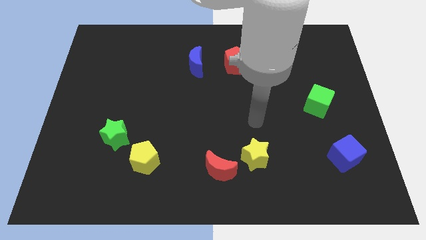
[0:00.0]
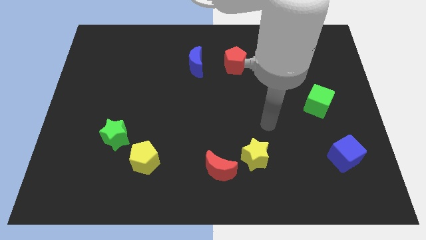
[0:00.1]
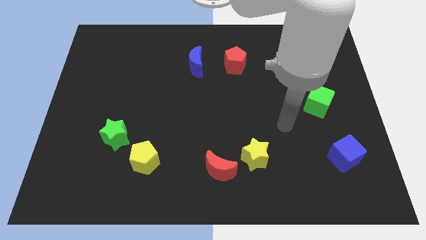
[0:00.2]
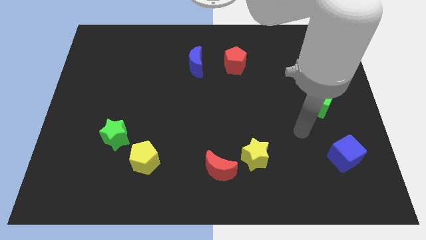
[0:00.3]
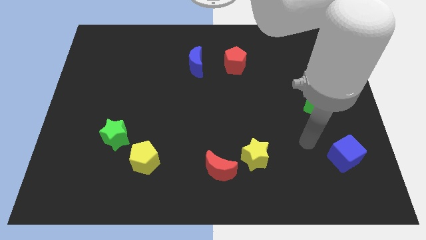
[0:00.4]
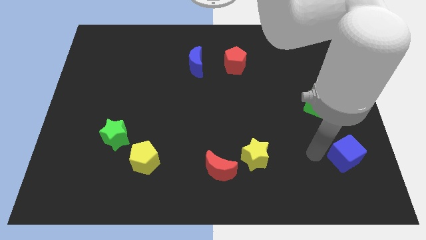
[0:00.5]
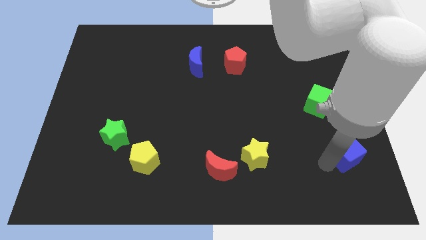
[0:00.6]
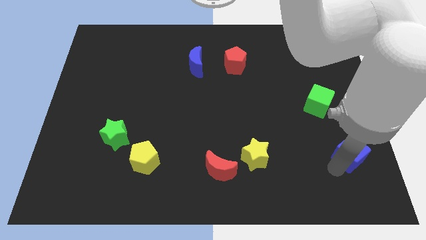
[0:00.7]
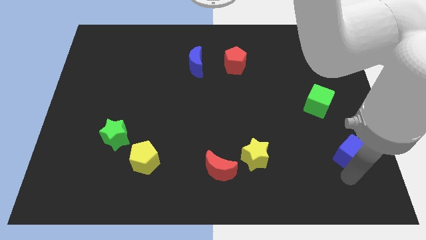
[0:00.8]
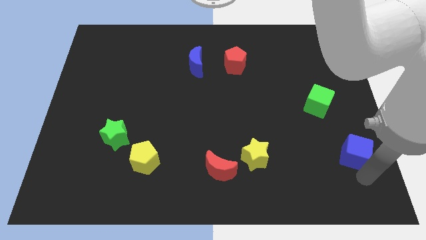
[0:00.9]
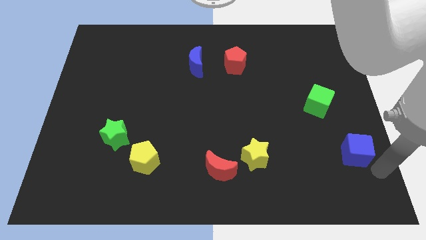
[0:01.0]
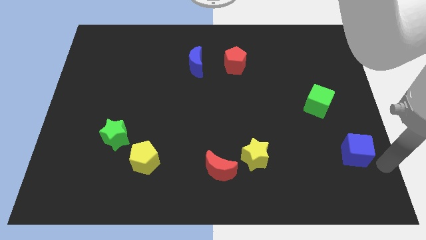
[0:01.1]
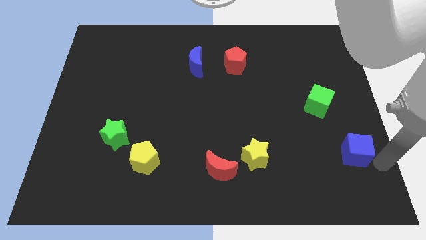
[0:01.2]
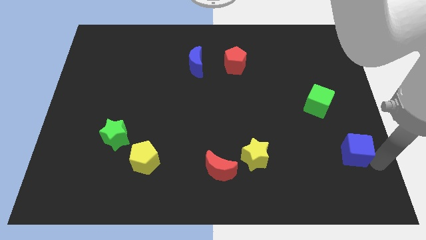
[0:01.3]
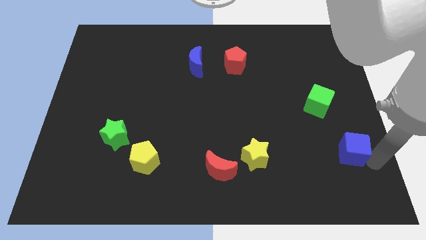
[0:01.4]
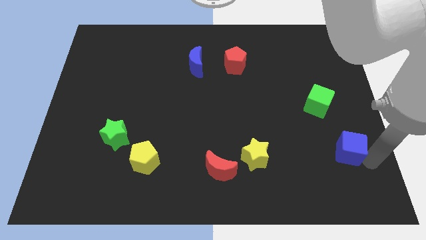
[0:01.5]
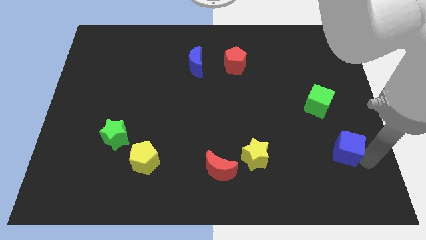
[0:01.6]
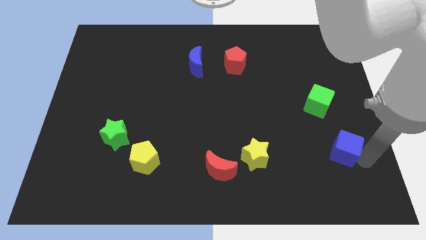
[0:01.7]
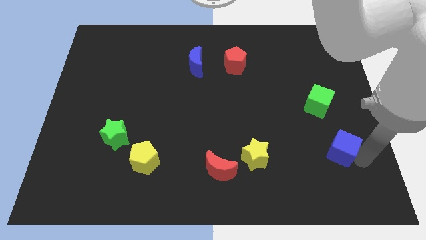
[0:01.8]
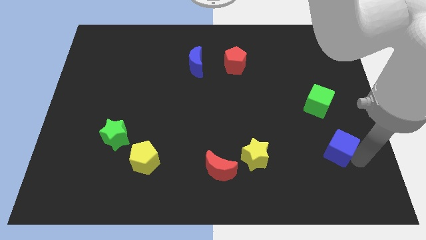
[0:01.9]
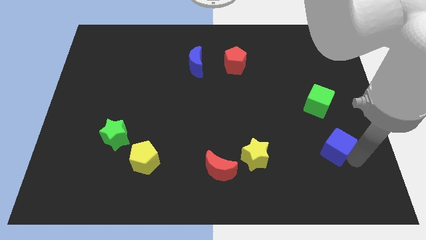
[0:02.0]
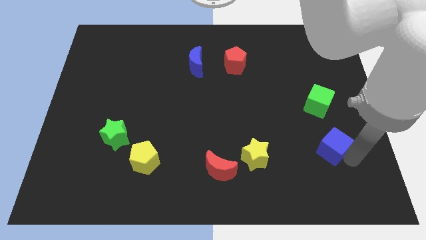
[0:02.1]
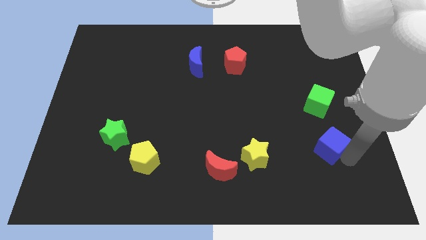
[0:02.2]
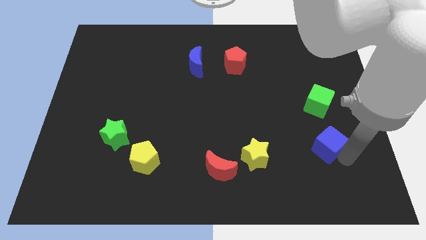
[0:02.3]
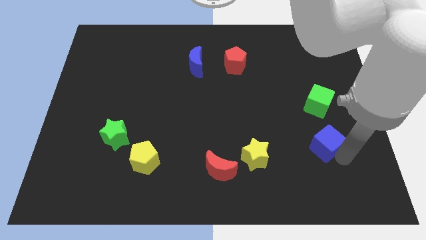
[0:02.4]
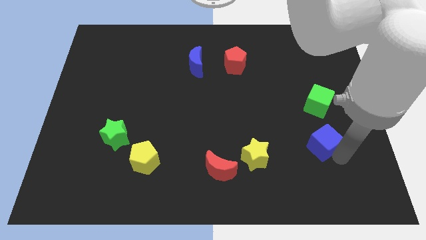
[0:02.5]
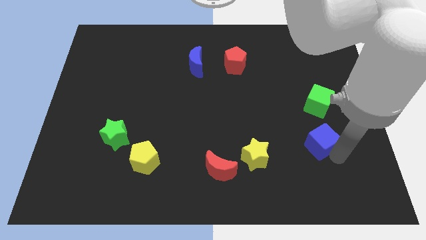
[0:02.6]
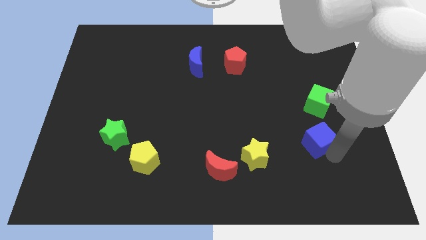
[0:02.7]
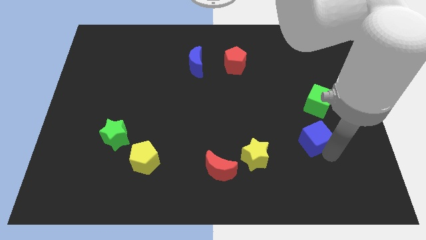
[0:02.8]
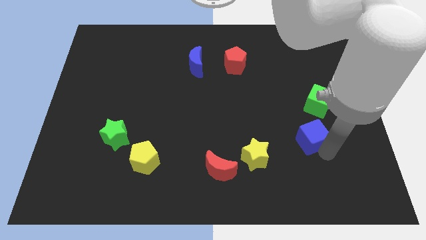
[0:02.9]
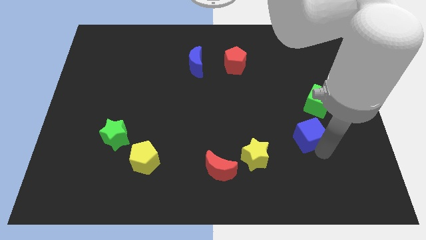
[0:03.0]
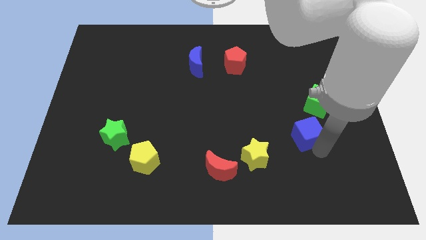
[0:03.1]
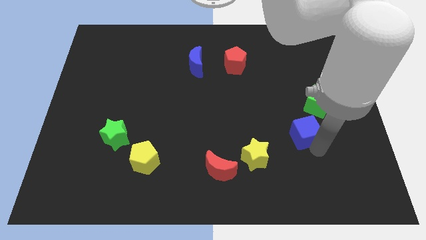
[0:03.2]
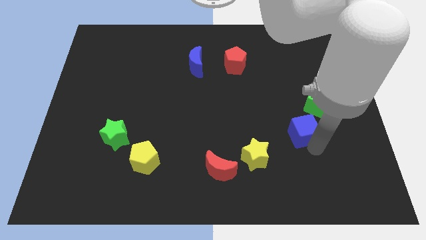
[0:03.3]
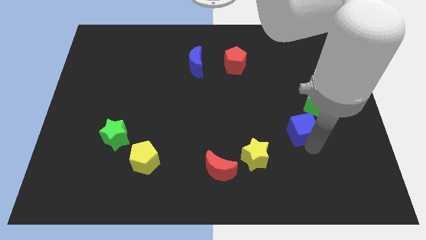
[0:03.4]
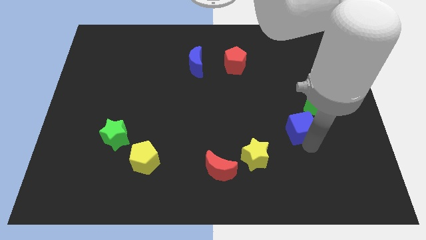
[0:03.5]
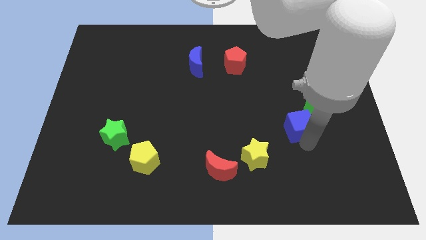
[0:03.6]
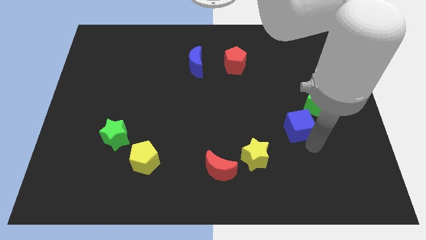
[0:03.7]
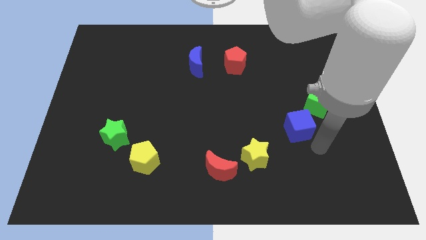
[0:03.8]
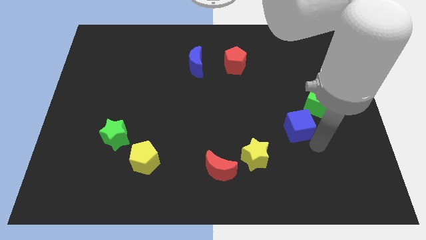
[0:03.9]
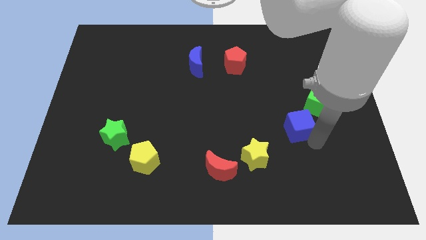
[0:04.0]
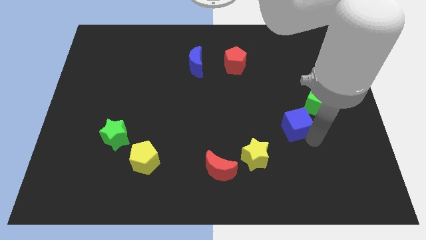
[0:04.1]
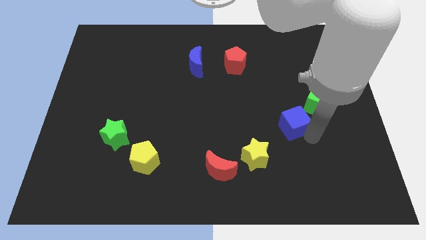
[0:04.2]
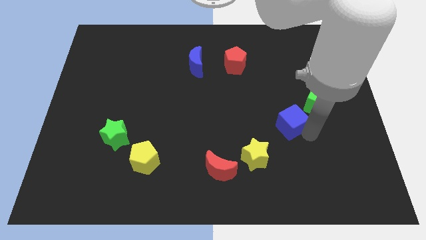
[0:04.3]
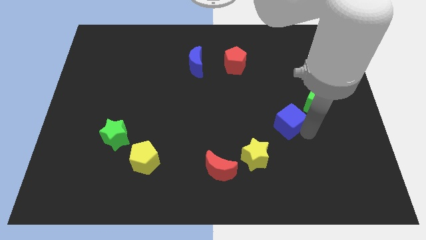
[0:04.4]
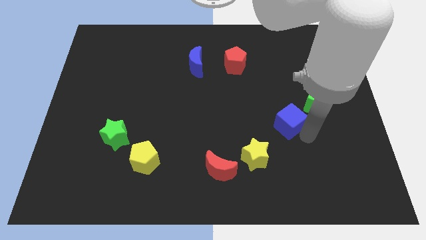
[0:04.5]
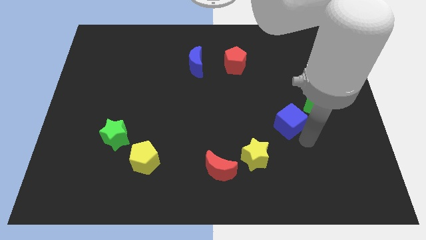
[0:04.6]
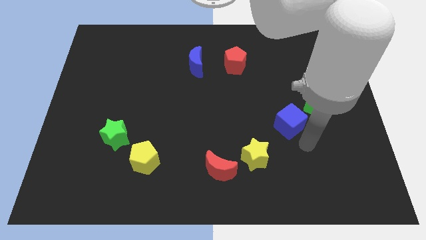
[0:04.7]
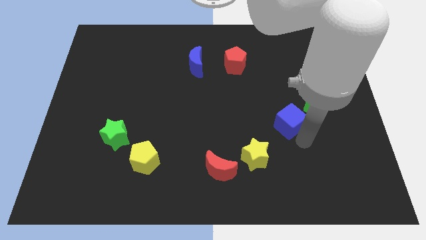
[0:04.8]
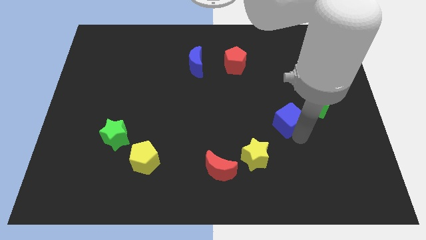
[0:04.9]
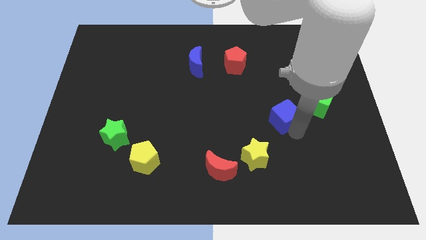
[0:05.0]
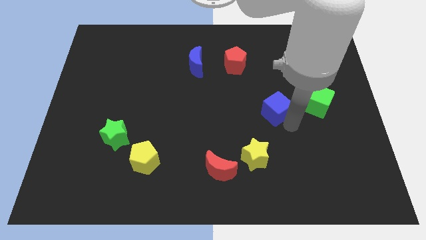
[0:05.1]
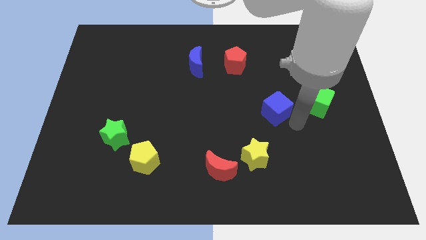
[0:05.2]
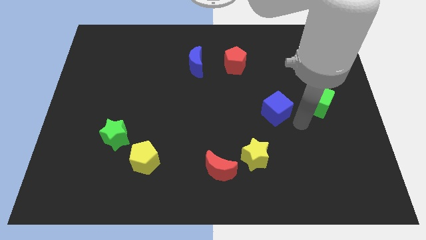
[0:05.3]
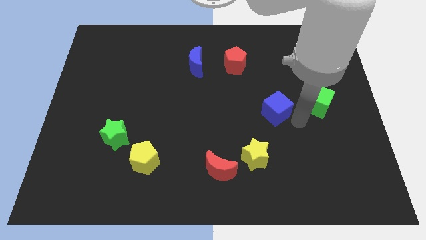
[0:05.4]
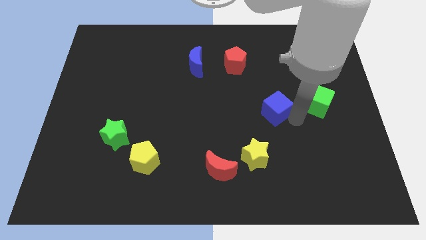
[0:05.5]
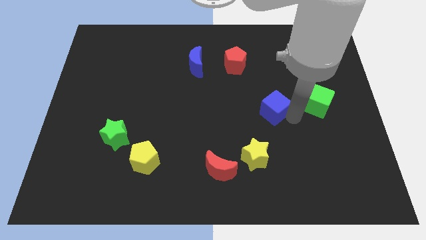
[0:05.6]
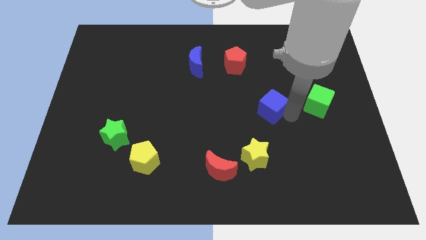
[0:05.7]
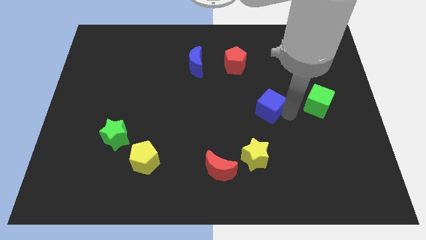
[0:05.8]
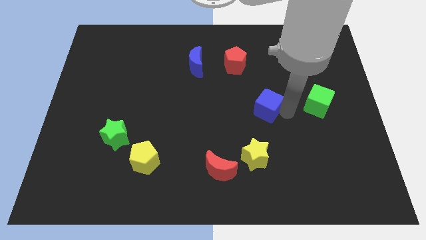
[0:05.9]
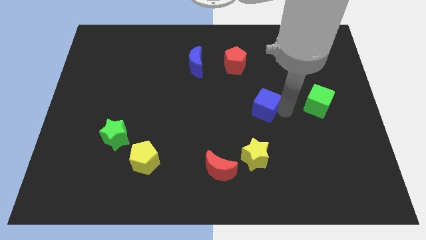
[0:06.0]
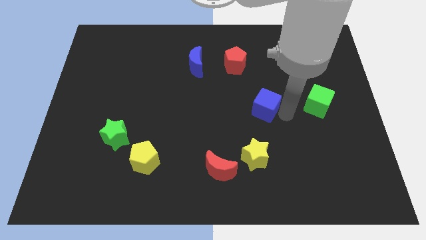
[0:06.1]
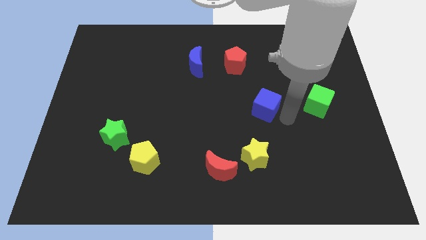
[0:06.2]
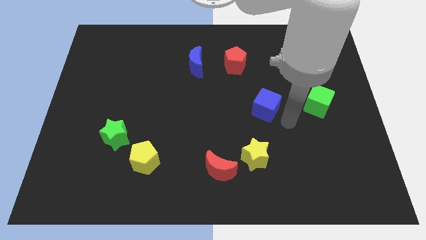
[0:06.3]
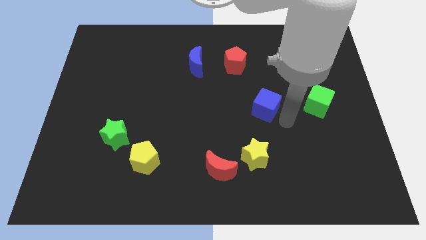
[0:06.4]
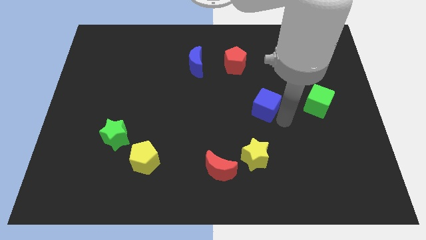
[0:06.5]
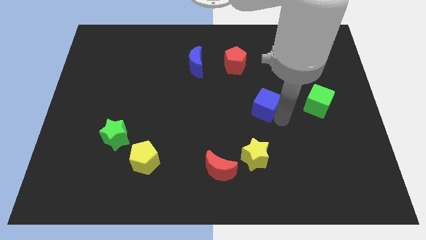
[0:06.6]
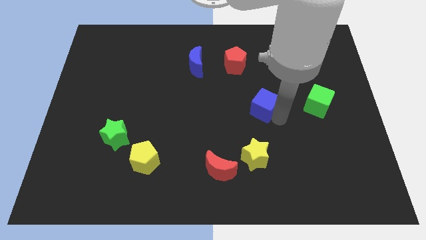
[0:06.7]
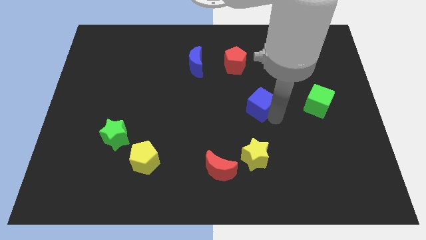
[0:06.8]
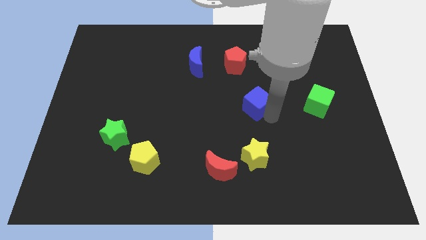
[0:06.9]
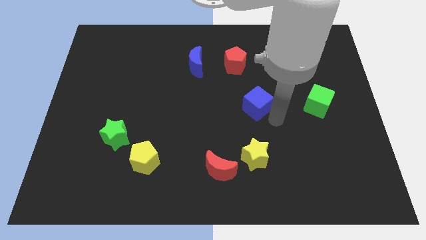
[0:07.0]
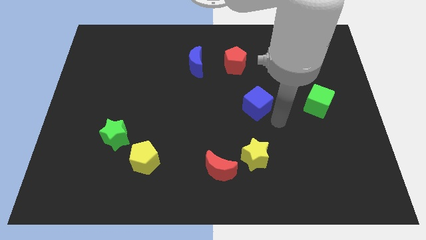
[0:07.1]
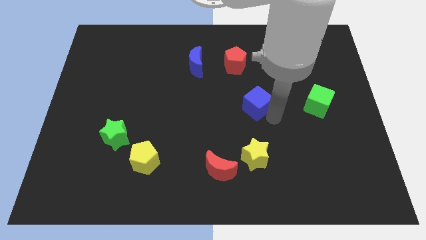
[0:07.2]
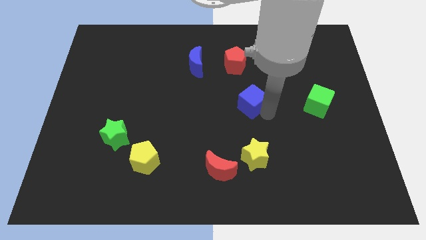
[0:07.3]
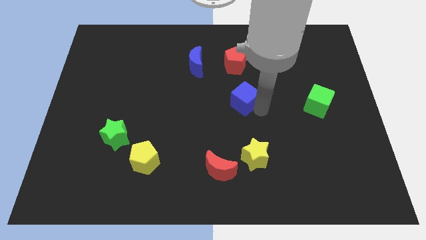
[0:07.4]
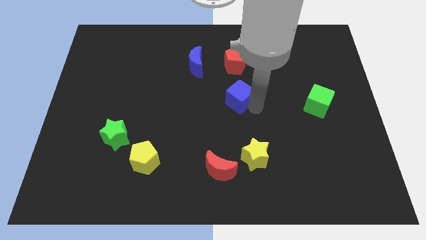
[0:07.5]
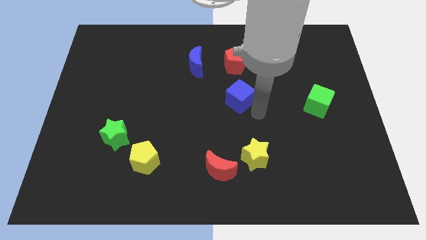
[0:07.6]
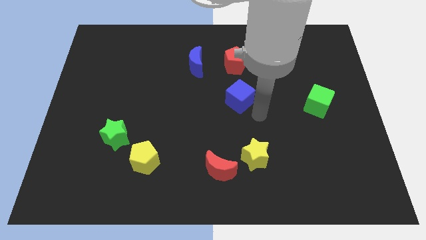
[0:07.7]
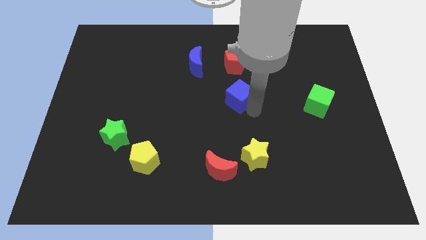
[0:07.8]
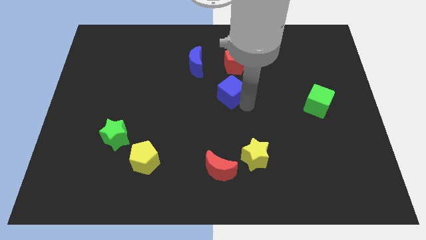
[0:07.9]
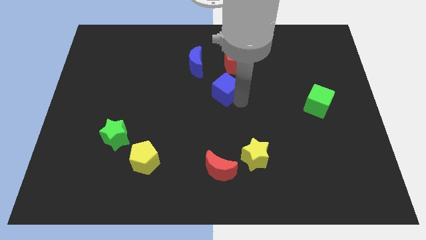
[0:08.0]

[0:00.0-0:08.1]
put the blue cube diagonally down and to the left of the red pentagon
